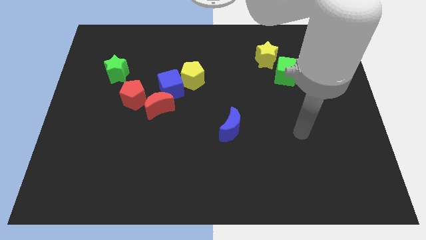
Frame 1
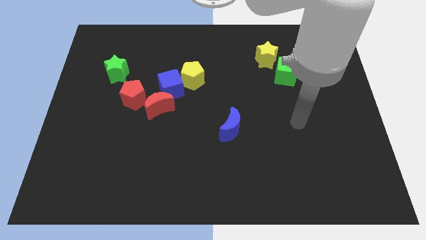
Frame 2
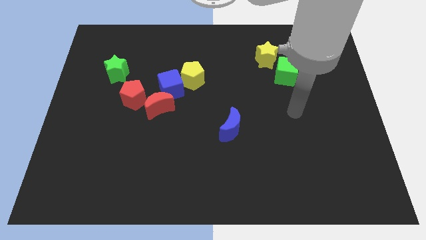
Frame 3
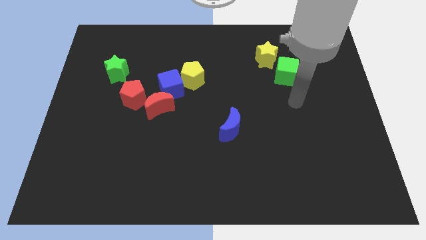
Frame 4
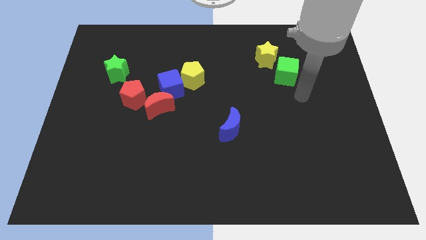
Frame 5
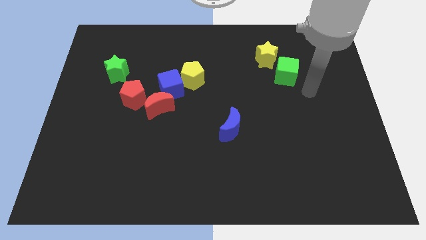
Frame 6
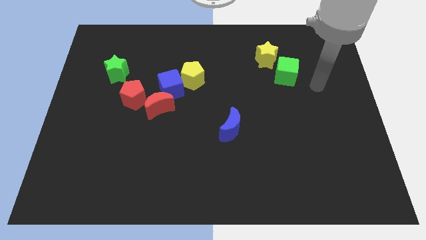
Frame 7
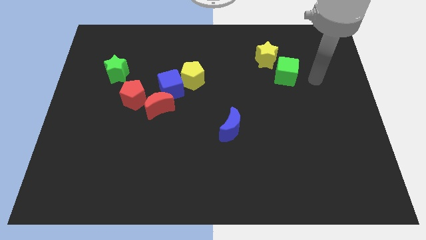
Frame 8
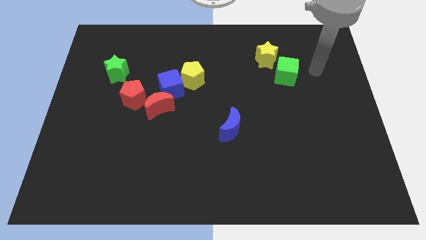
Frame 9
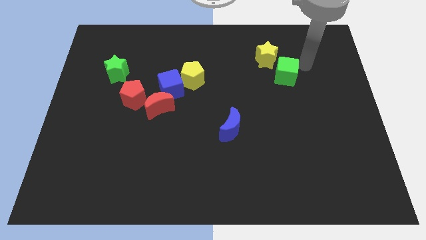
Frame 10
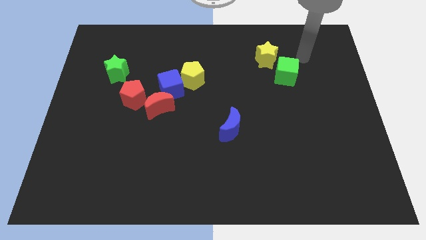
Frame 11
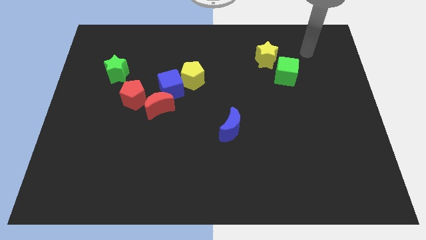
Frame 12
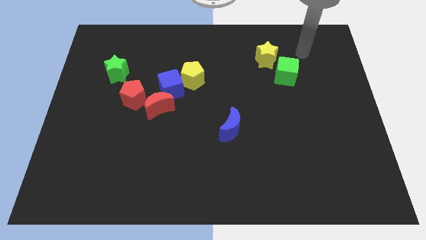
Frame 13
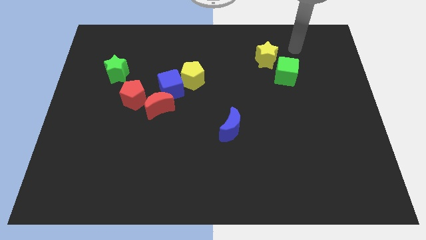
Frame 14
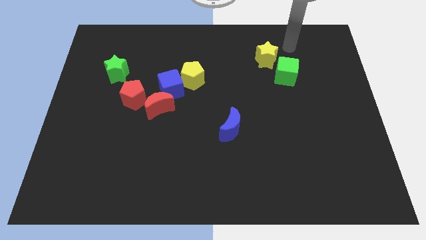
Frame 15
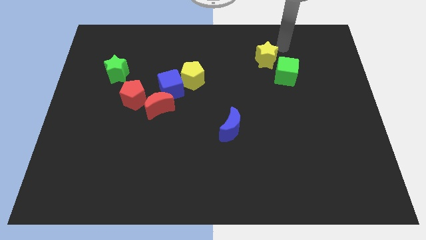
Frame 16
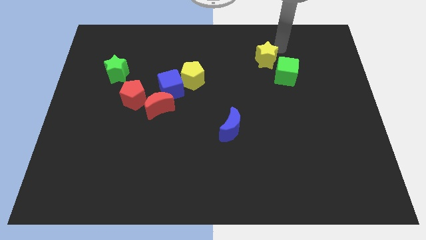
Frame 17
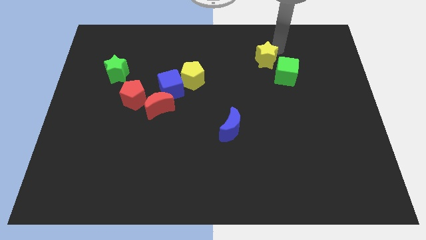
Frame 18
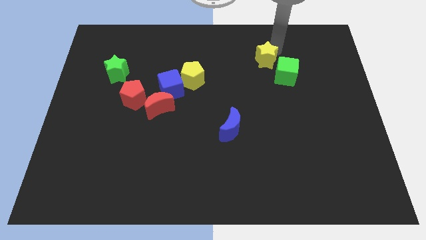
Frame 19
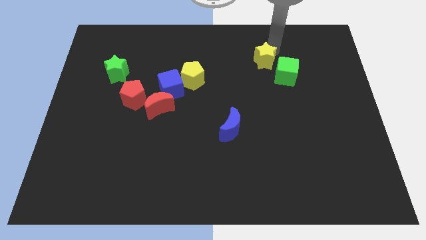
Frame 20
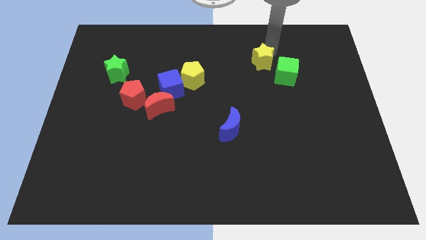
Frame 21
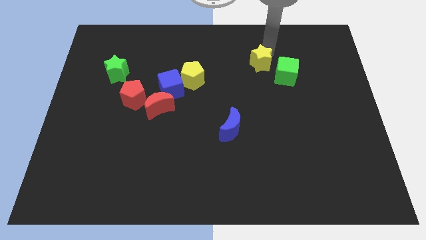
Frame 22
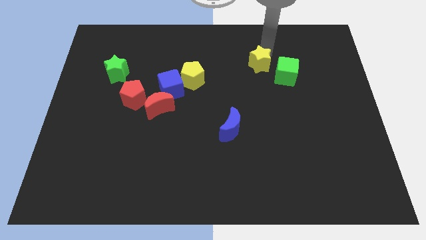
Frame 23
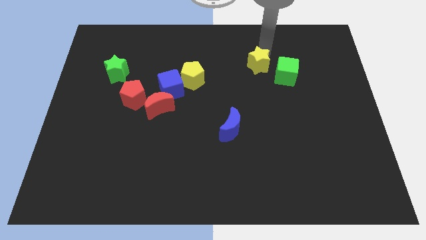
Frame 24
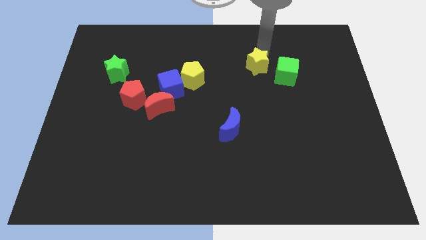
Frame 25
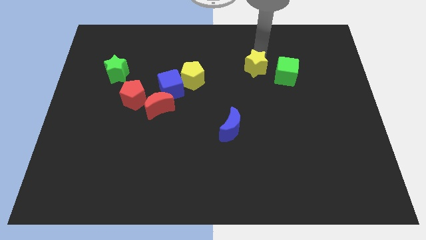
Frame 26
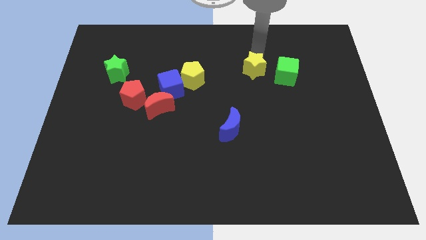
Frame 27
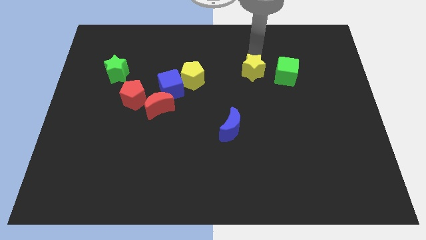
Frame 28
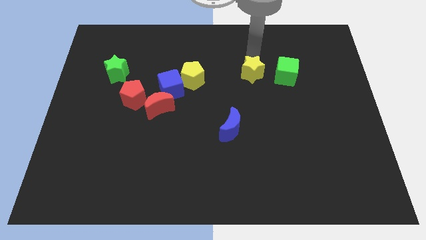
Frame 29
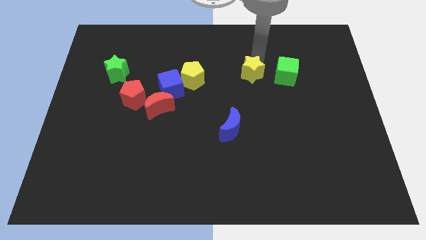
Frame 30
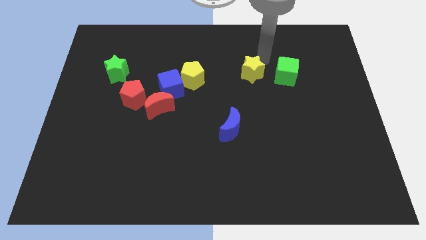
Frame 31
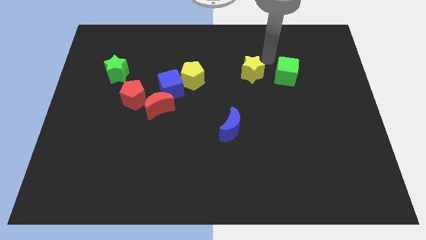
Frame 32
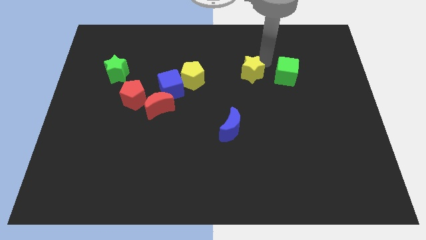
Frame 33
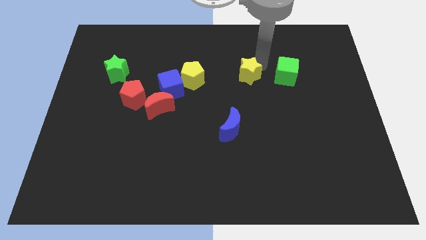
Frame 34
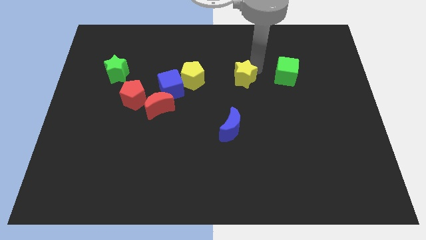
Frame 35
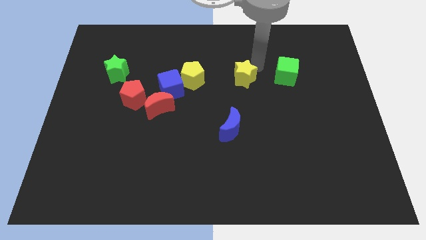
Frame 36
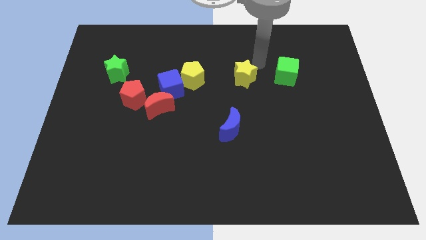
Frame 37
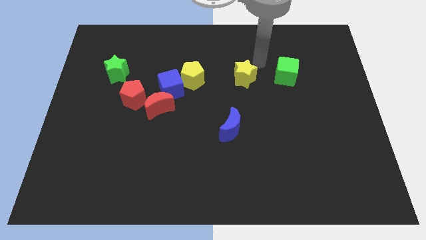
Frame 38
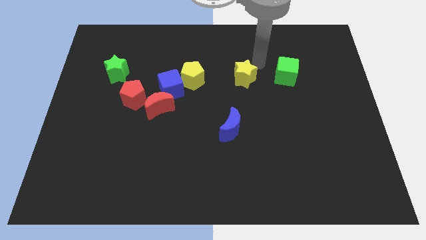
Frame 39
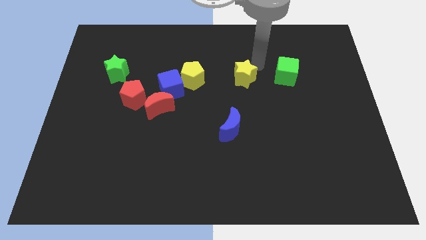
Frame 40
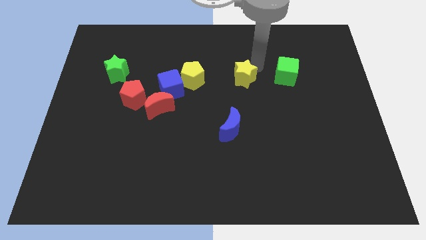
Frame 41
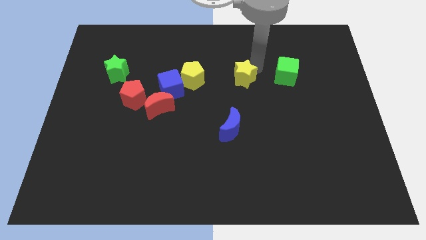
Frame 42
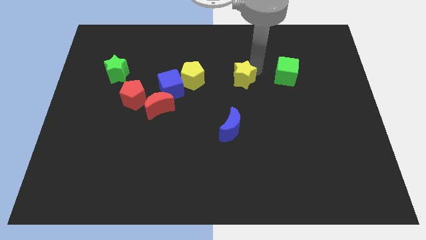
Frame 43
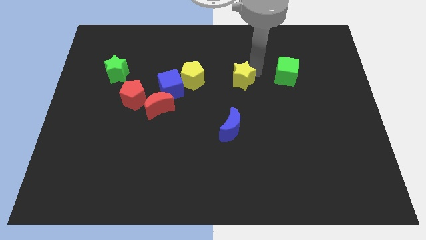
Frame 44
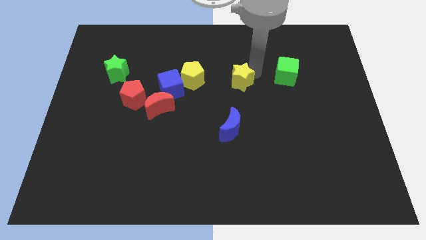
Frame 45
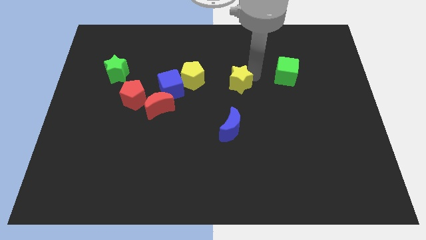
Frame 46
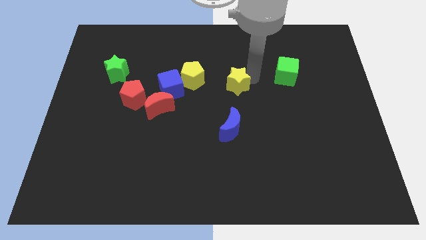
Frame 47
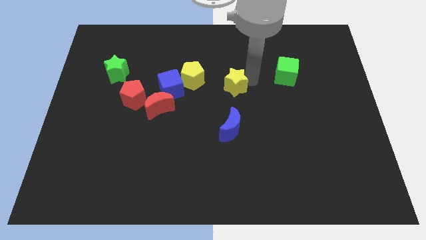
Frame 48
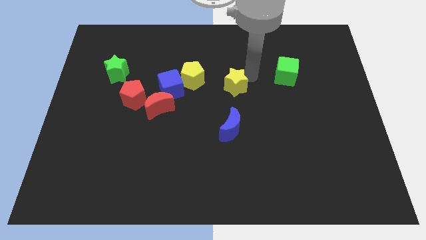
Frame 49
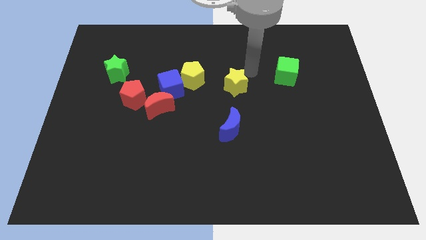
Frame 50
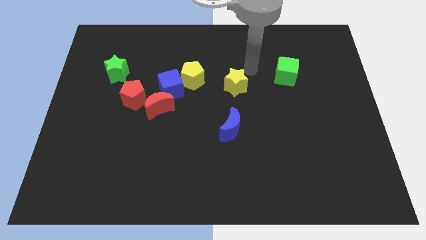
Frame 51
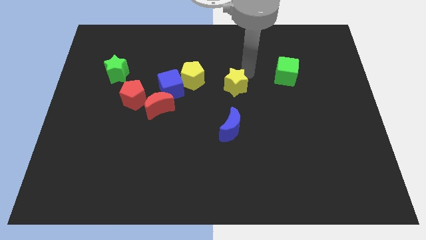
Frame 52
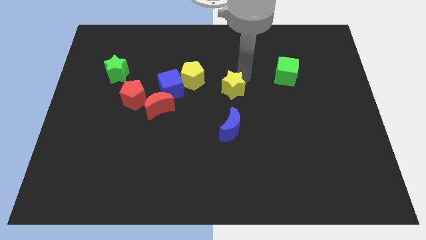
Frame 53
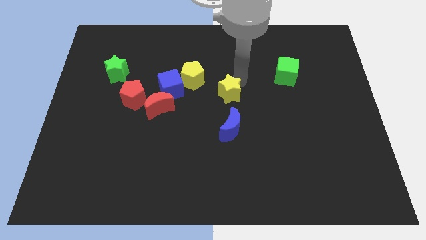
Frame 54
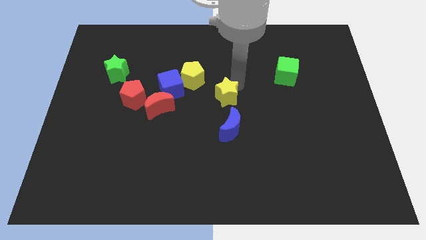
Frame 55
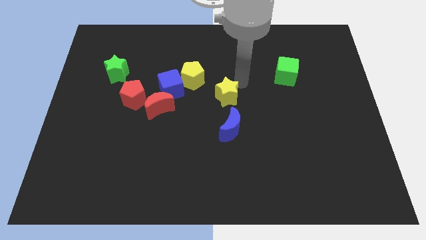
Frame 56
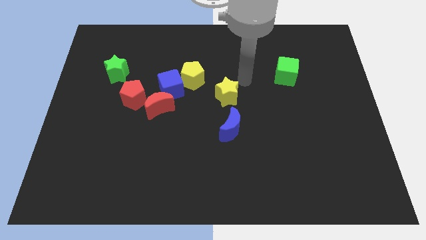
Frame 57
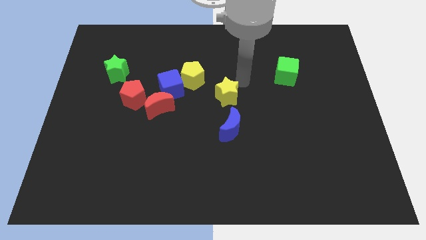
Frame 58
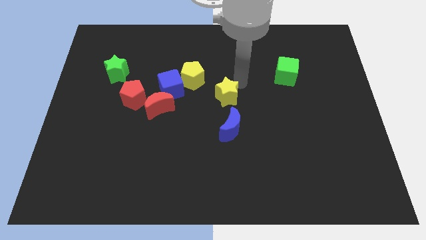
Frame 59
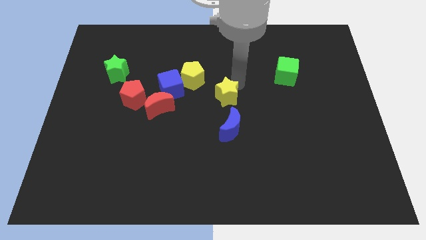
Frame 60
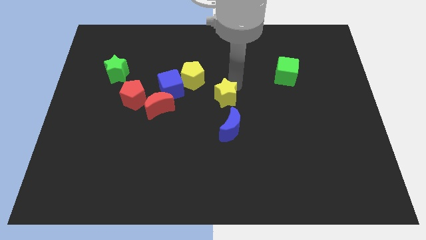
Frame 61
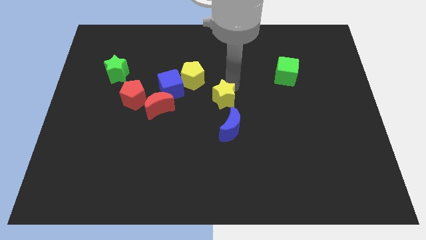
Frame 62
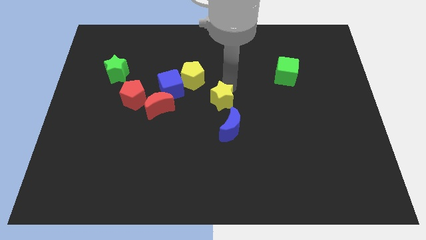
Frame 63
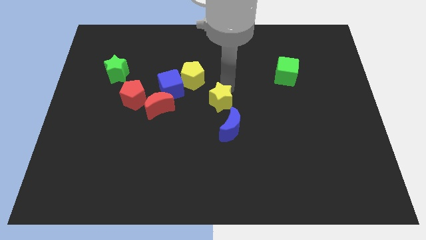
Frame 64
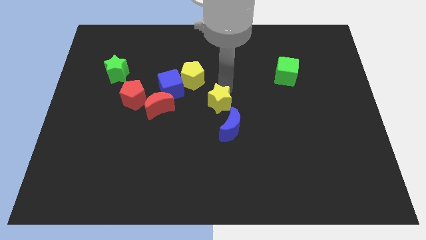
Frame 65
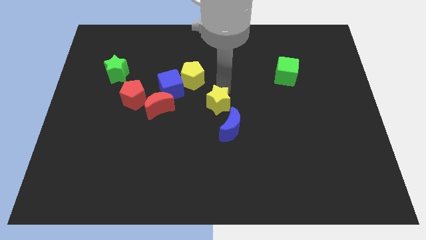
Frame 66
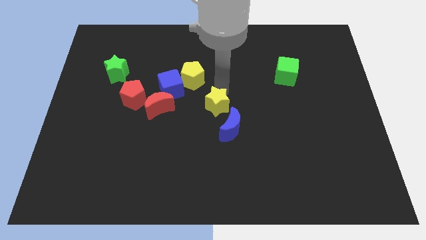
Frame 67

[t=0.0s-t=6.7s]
move the yellow star down and to the left diagonally

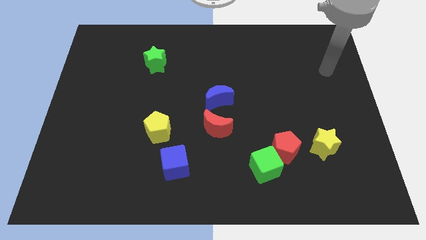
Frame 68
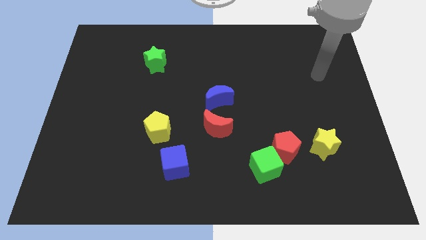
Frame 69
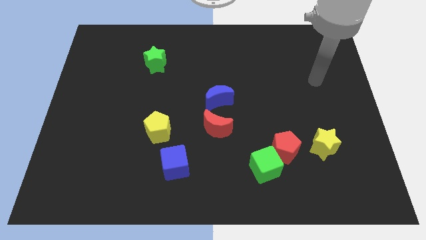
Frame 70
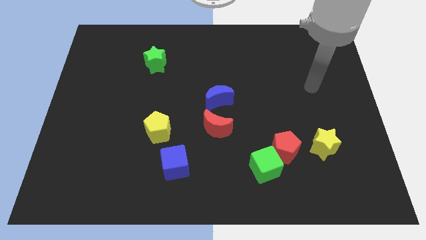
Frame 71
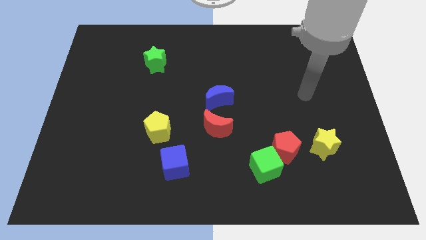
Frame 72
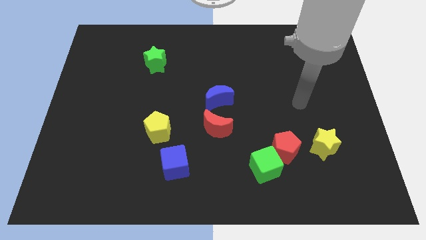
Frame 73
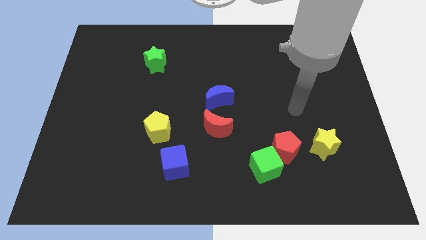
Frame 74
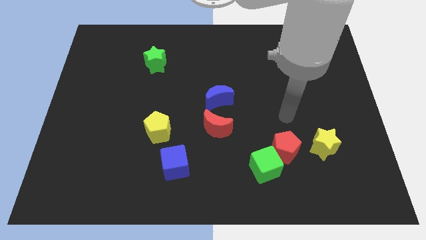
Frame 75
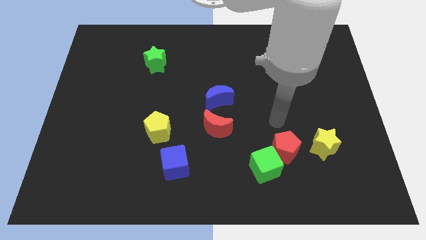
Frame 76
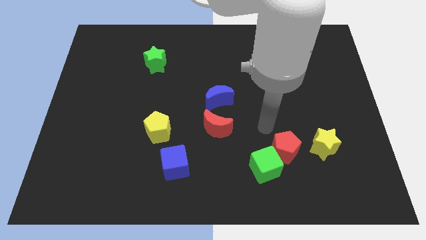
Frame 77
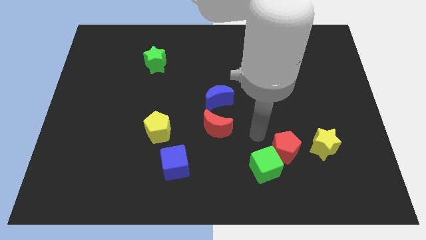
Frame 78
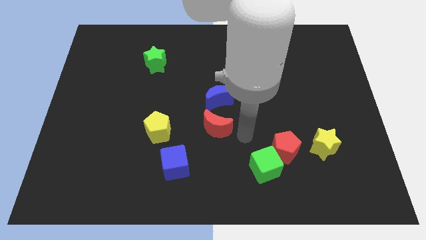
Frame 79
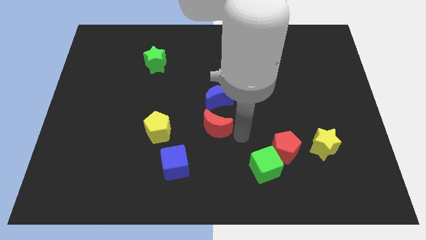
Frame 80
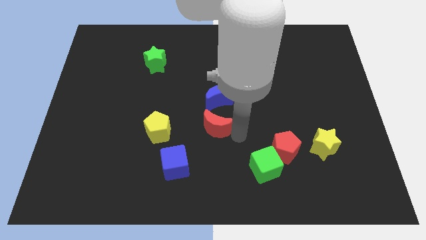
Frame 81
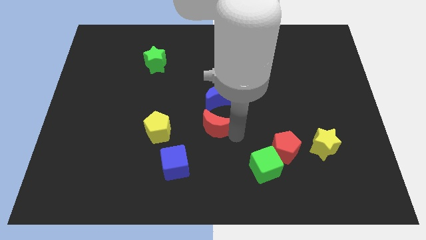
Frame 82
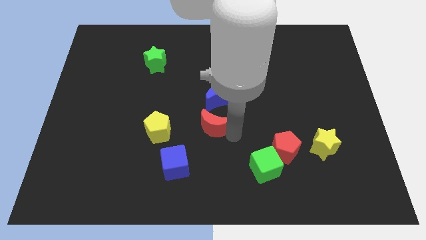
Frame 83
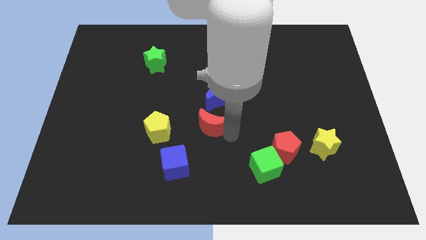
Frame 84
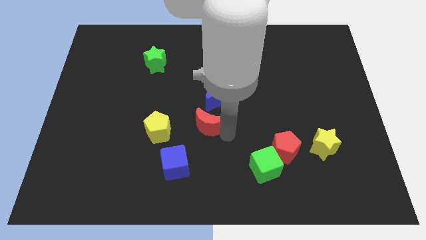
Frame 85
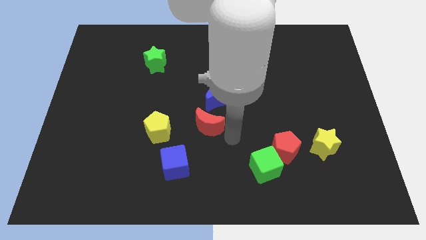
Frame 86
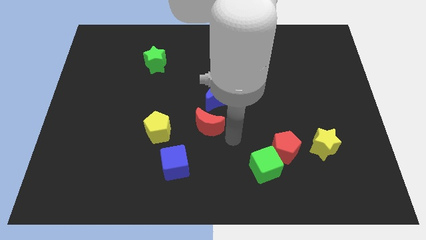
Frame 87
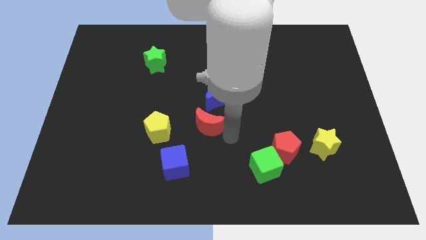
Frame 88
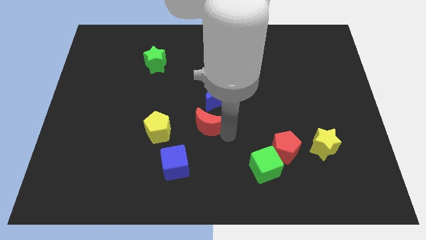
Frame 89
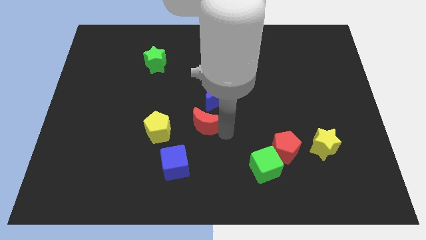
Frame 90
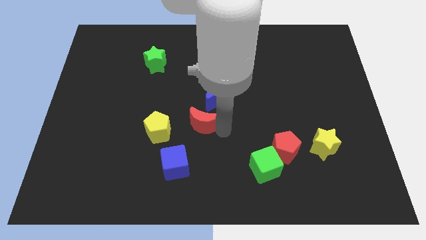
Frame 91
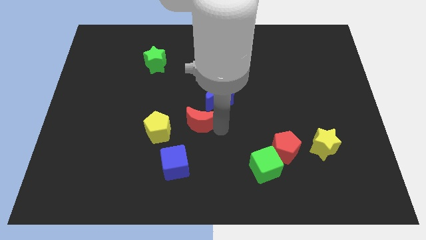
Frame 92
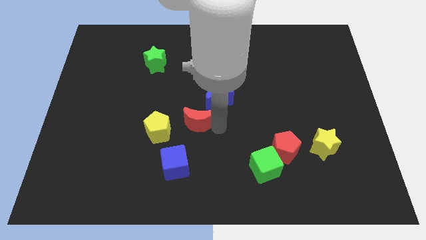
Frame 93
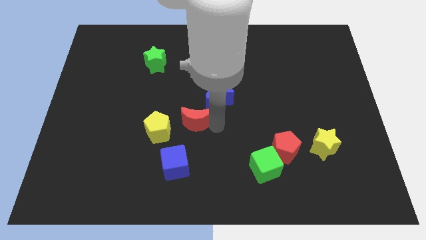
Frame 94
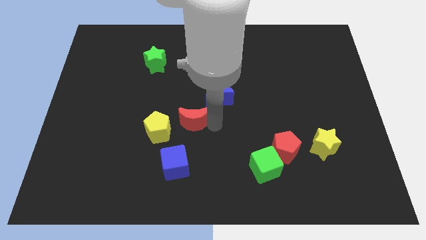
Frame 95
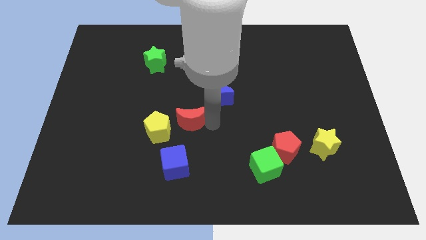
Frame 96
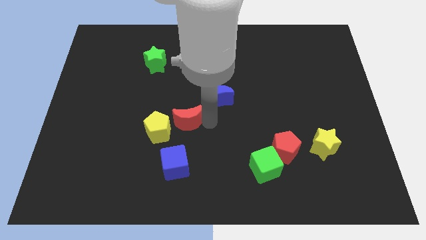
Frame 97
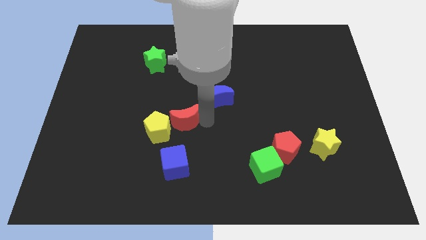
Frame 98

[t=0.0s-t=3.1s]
slide the red moon a bit to the left
